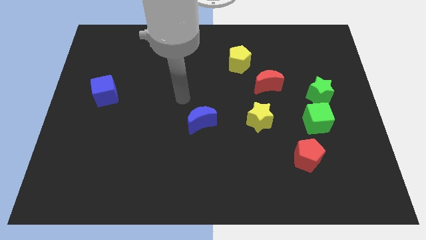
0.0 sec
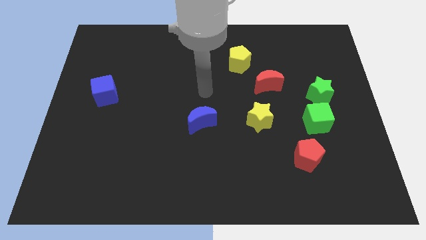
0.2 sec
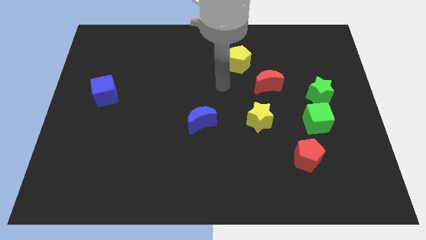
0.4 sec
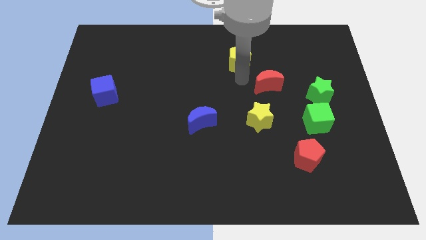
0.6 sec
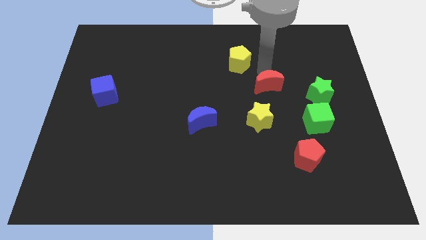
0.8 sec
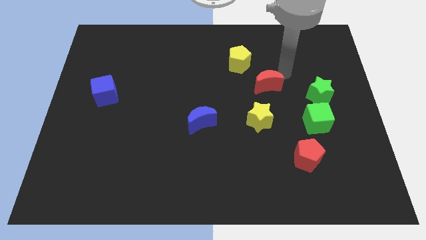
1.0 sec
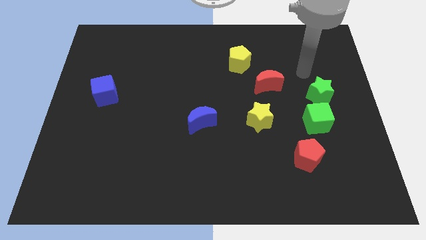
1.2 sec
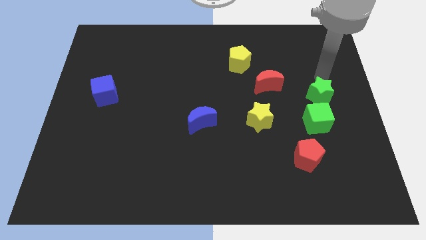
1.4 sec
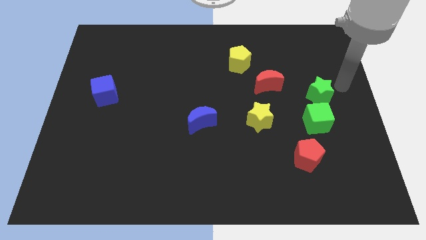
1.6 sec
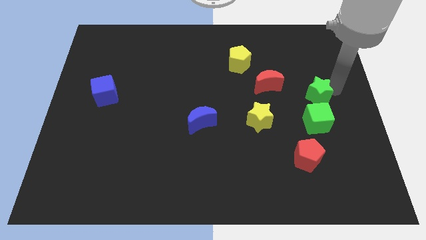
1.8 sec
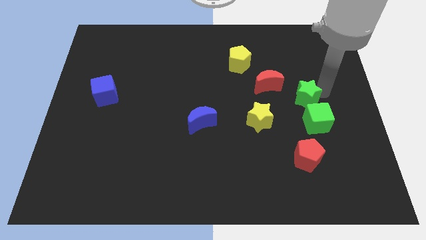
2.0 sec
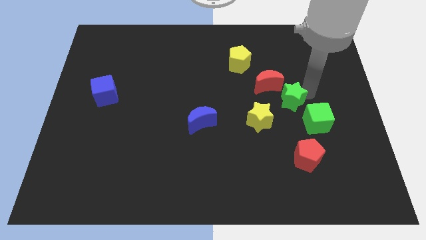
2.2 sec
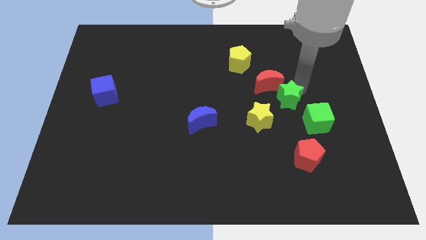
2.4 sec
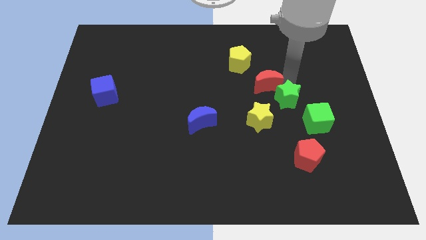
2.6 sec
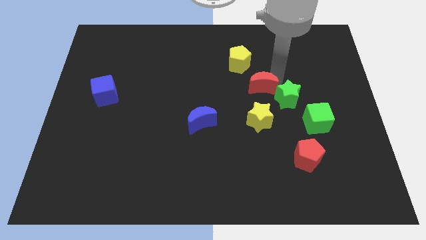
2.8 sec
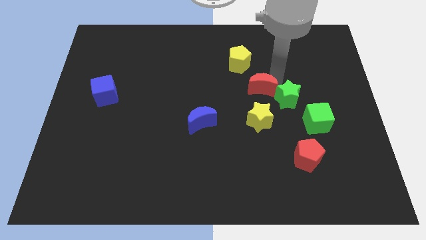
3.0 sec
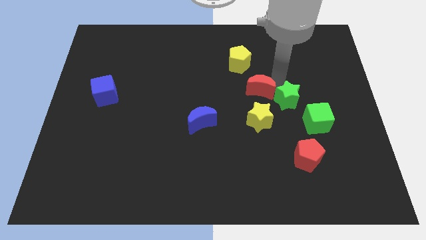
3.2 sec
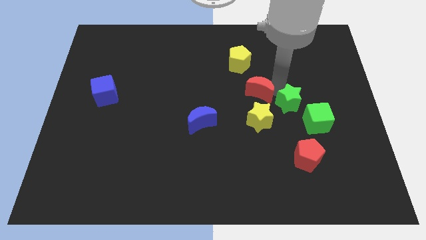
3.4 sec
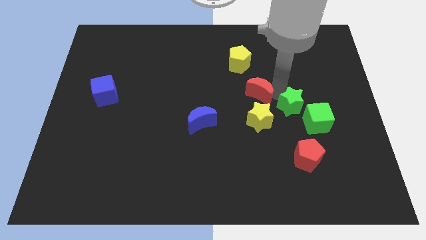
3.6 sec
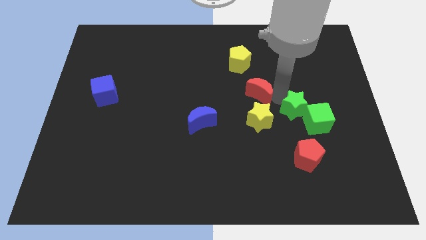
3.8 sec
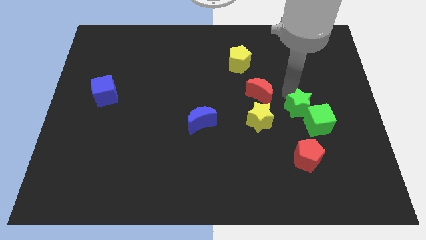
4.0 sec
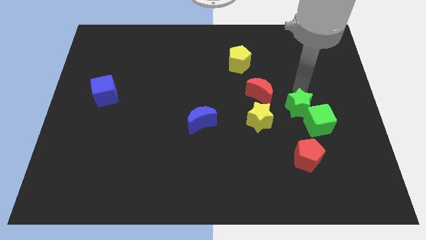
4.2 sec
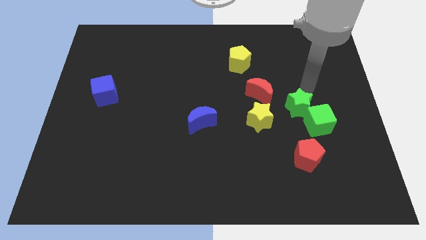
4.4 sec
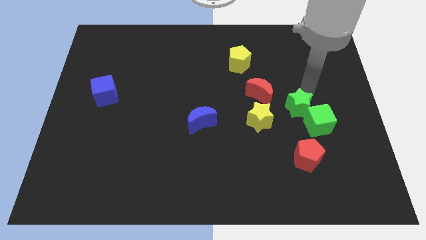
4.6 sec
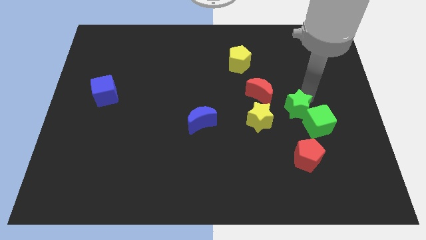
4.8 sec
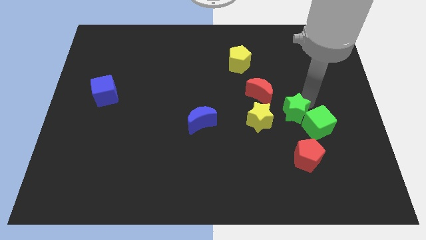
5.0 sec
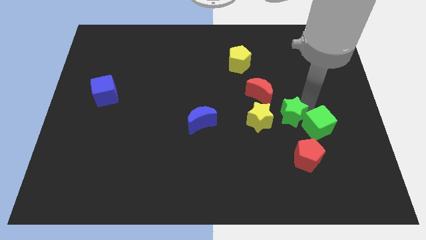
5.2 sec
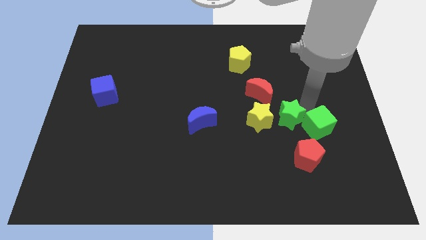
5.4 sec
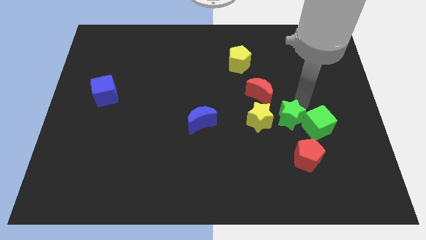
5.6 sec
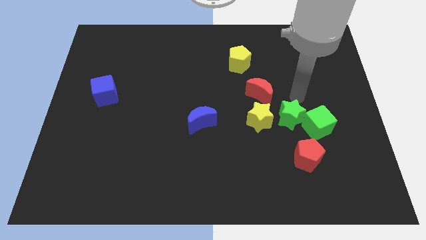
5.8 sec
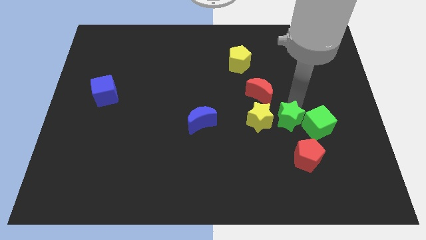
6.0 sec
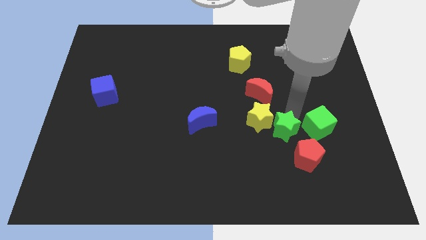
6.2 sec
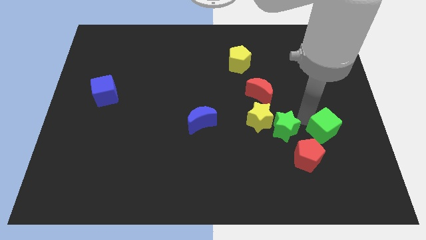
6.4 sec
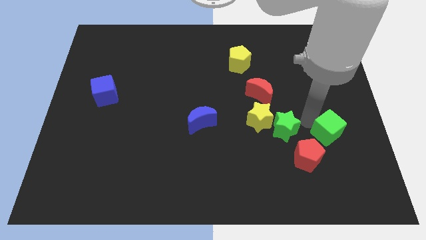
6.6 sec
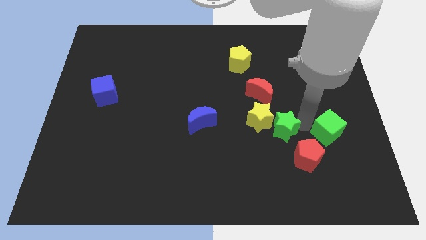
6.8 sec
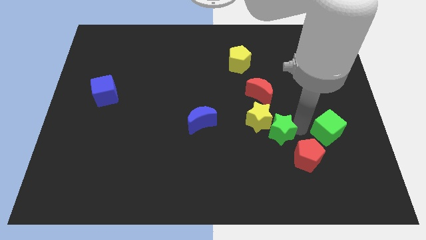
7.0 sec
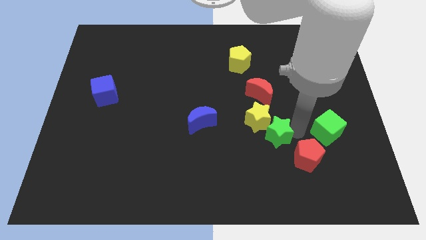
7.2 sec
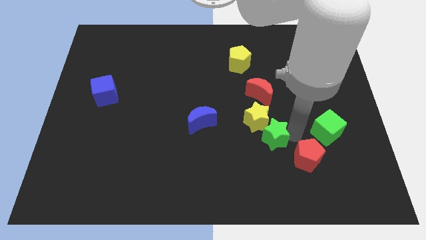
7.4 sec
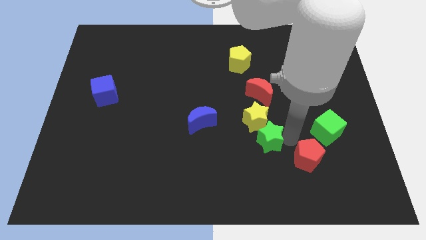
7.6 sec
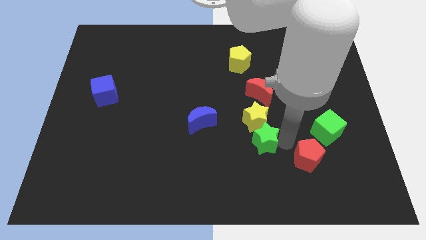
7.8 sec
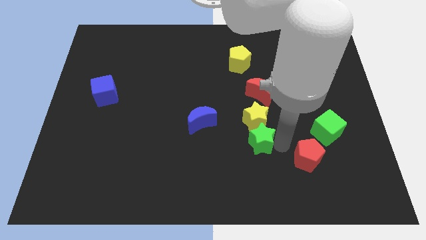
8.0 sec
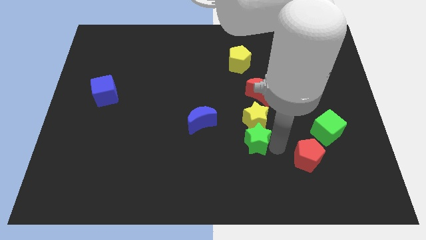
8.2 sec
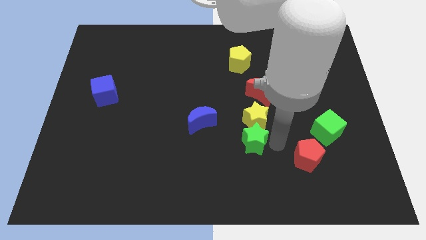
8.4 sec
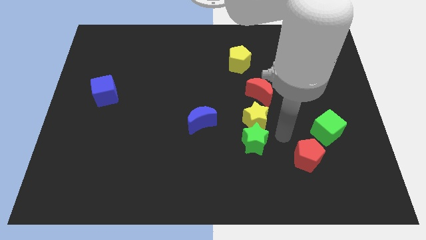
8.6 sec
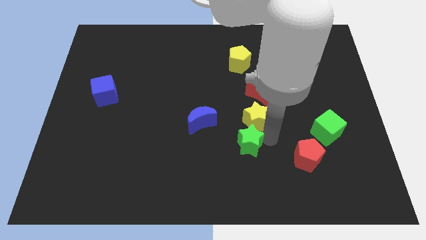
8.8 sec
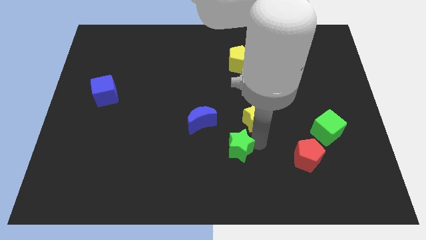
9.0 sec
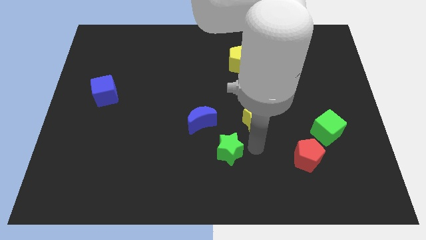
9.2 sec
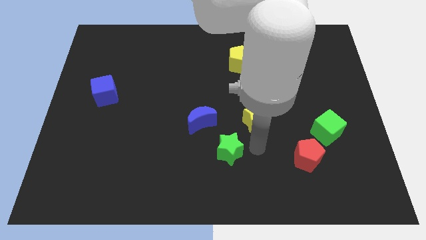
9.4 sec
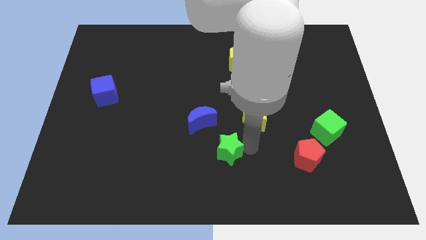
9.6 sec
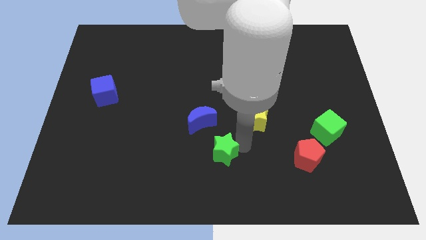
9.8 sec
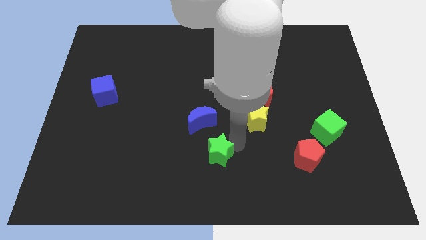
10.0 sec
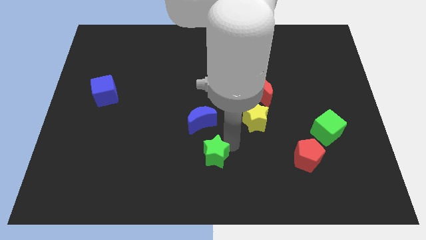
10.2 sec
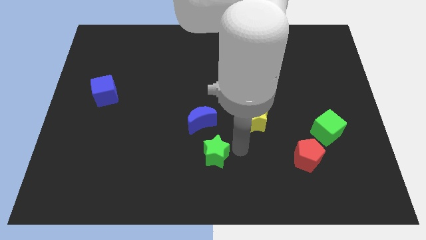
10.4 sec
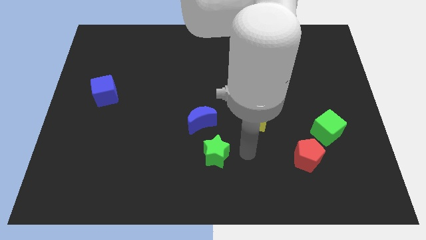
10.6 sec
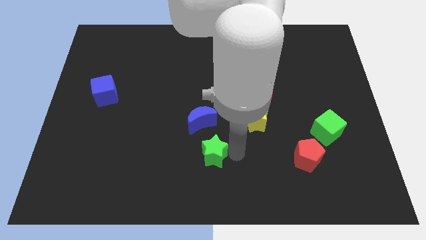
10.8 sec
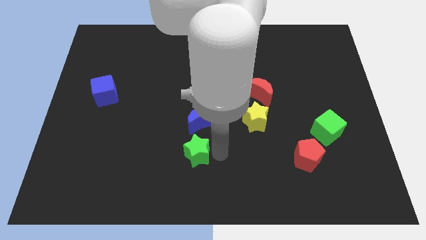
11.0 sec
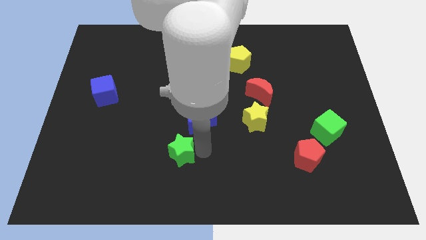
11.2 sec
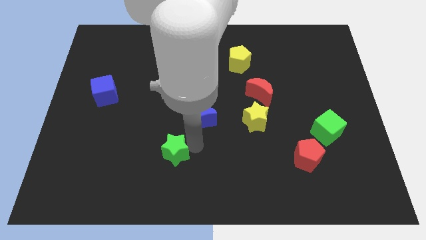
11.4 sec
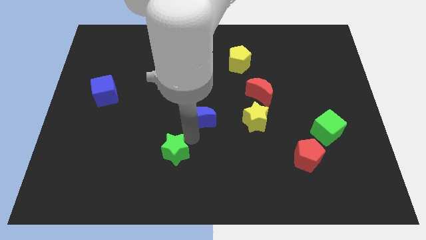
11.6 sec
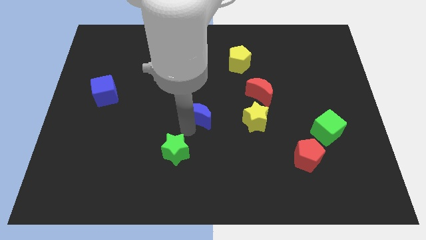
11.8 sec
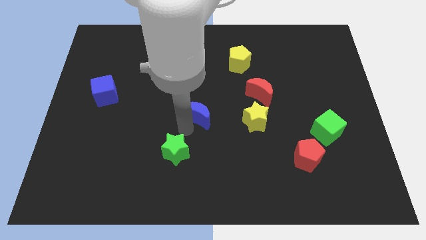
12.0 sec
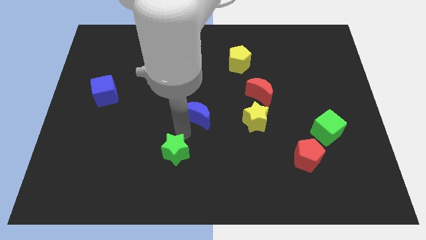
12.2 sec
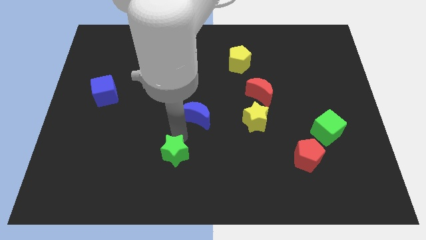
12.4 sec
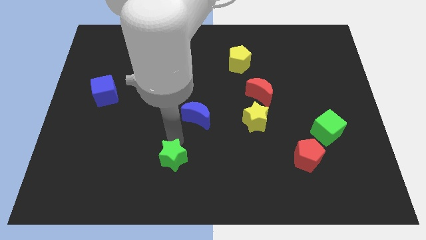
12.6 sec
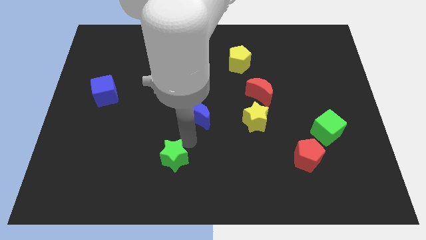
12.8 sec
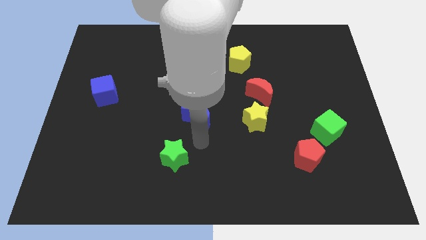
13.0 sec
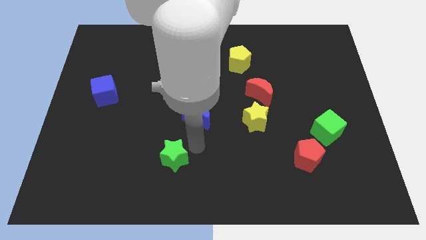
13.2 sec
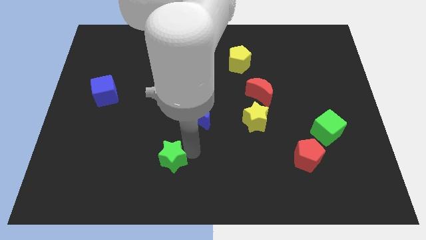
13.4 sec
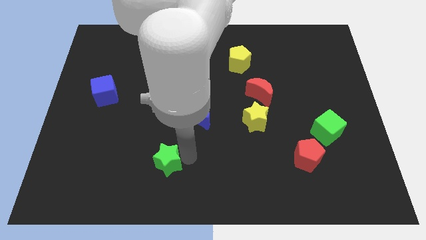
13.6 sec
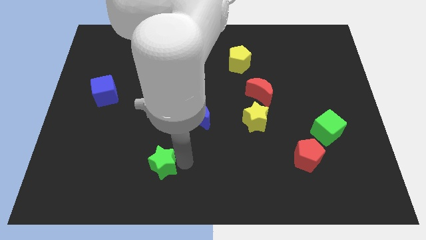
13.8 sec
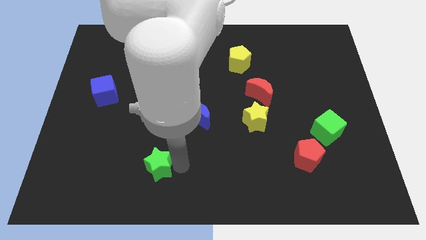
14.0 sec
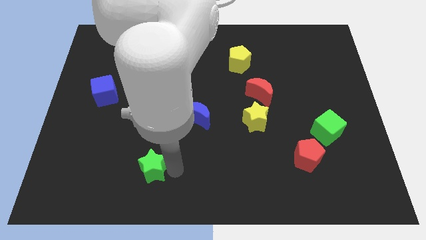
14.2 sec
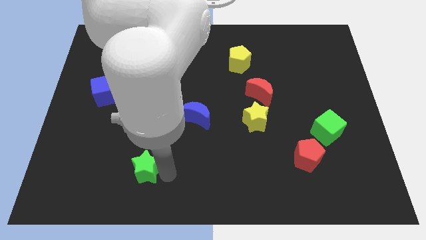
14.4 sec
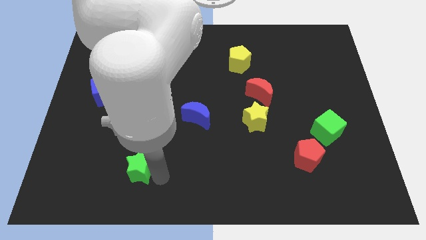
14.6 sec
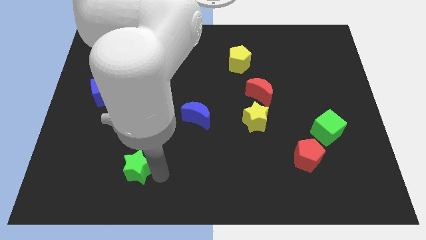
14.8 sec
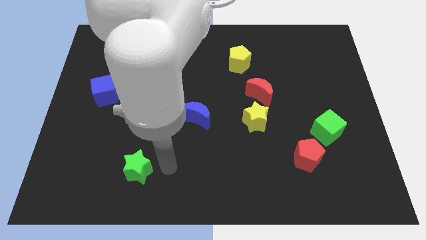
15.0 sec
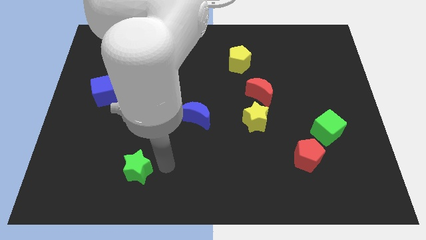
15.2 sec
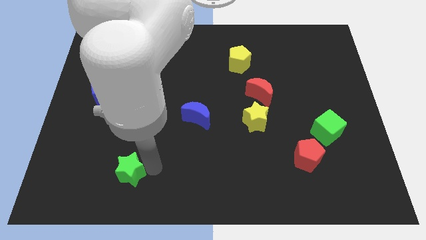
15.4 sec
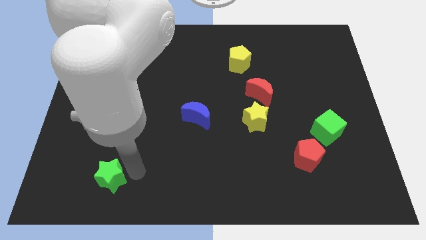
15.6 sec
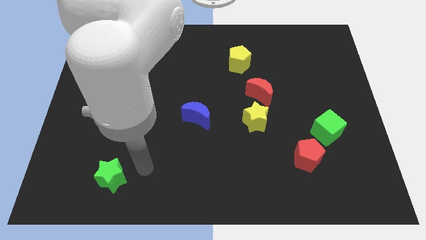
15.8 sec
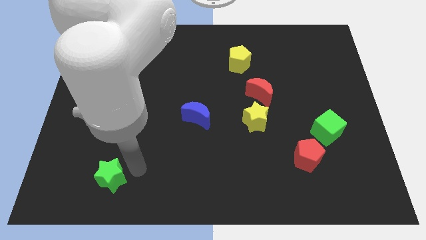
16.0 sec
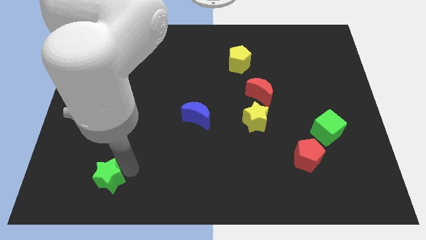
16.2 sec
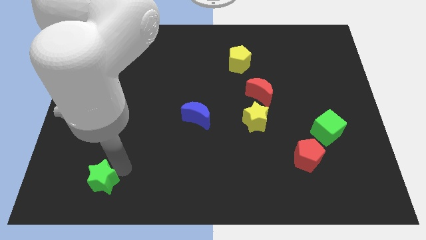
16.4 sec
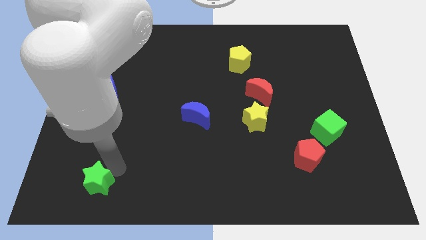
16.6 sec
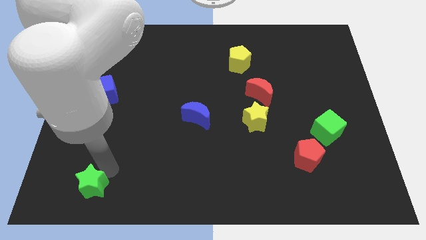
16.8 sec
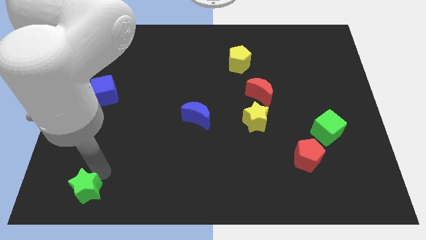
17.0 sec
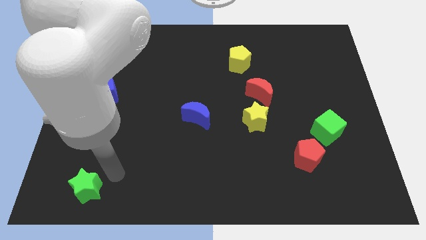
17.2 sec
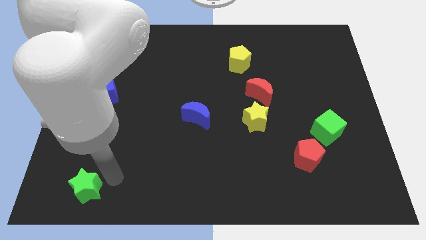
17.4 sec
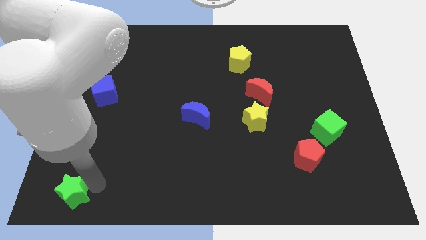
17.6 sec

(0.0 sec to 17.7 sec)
move the green star to the bottom left of the board
